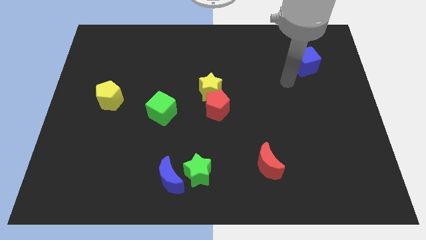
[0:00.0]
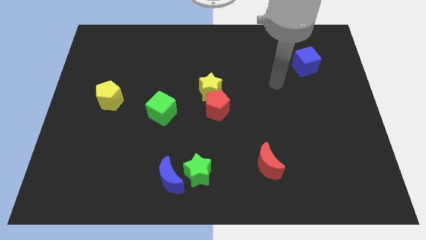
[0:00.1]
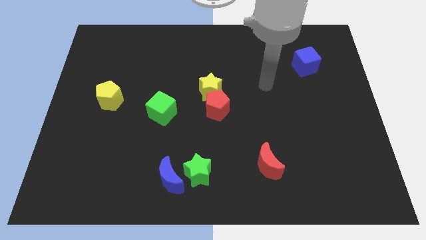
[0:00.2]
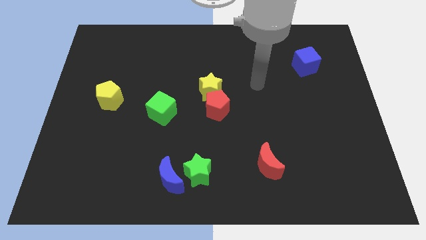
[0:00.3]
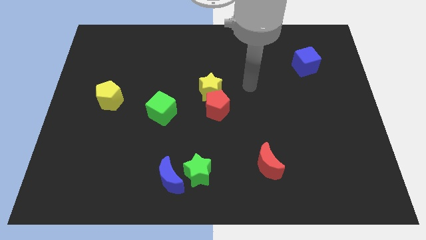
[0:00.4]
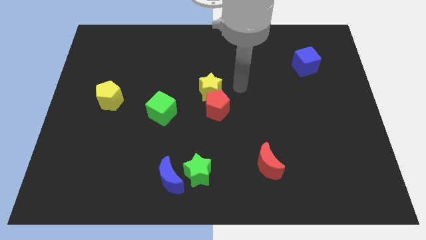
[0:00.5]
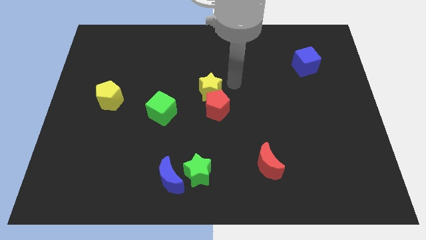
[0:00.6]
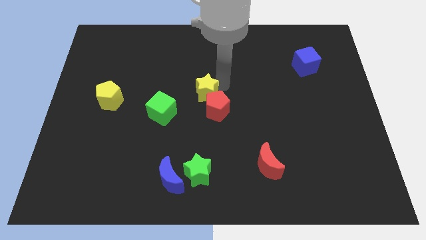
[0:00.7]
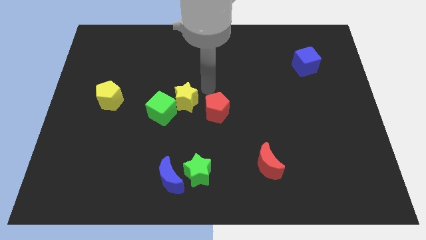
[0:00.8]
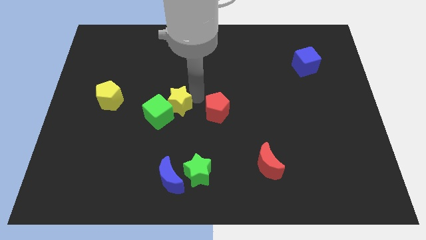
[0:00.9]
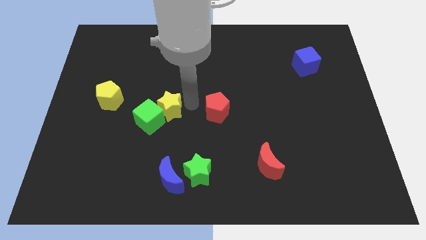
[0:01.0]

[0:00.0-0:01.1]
move the red pentagon away from the yellow star

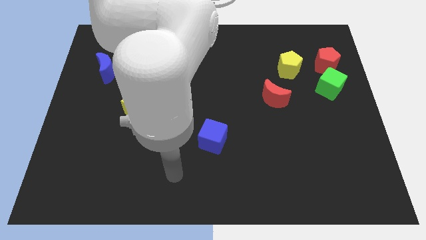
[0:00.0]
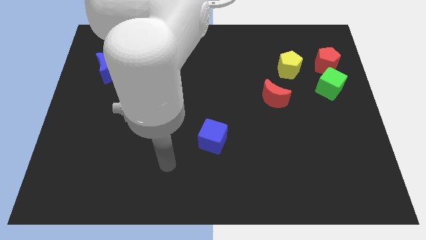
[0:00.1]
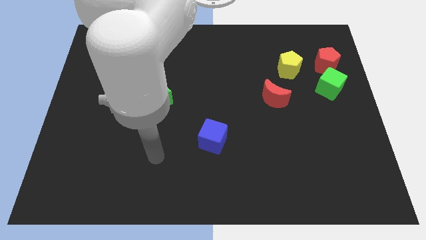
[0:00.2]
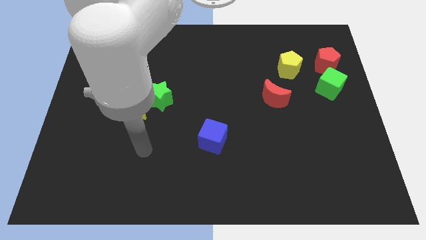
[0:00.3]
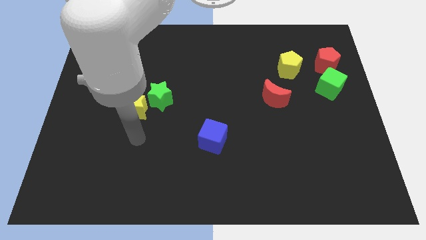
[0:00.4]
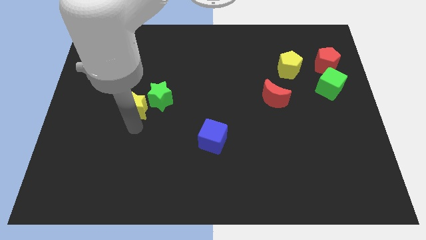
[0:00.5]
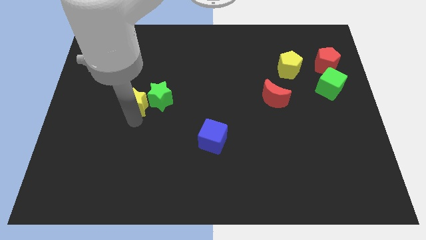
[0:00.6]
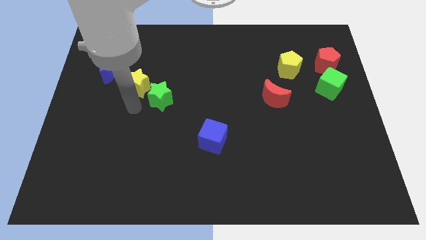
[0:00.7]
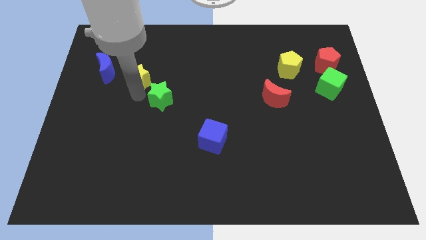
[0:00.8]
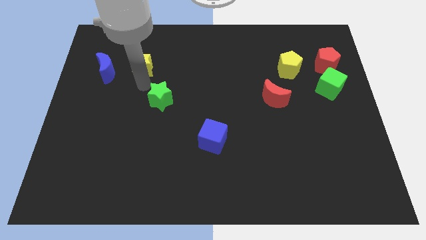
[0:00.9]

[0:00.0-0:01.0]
move the green star away from the yellow star

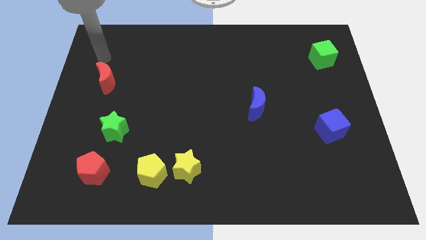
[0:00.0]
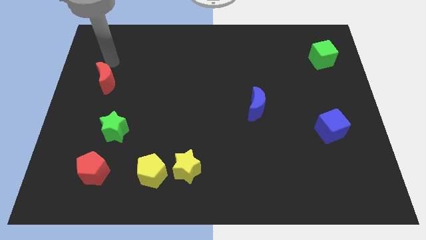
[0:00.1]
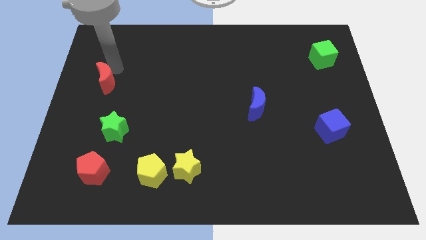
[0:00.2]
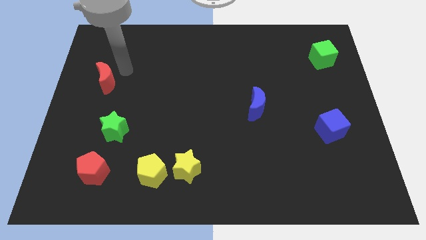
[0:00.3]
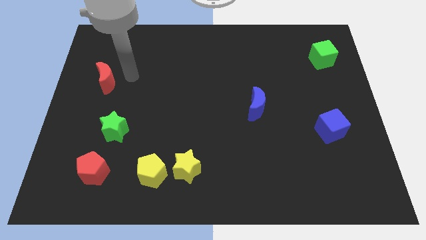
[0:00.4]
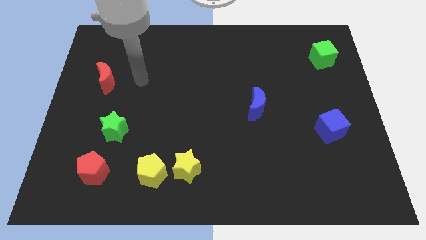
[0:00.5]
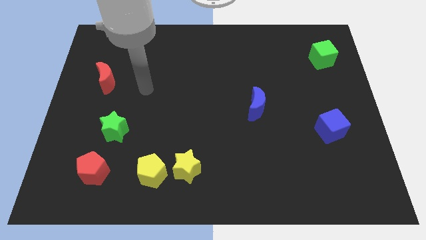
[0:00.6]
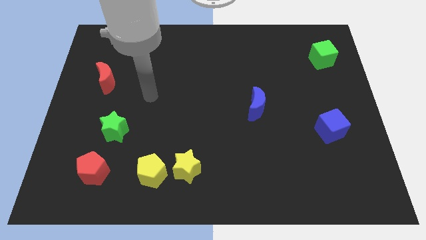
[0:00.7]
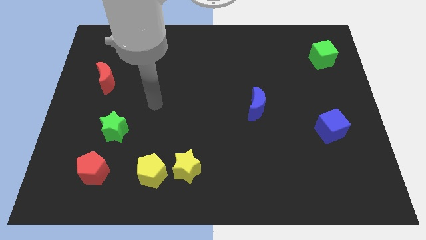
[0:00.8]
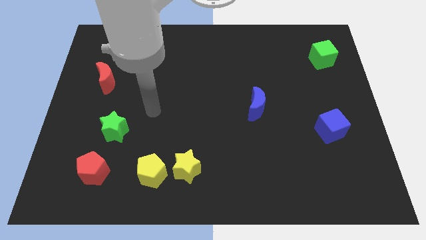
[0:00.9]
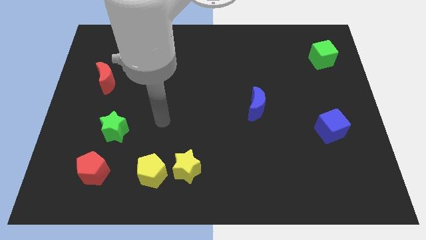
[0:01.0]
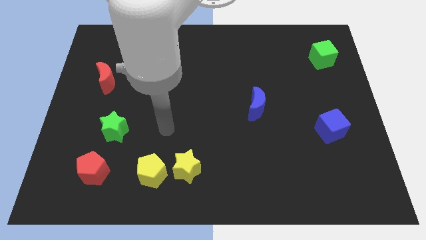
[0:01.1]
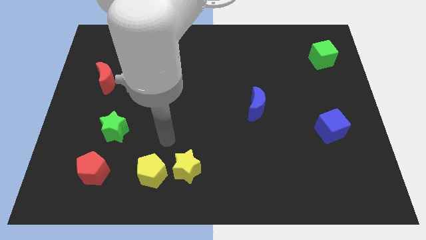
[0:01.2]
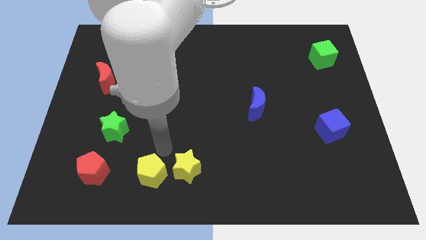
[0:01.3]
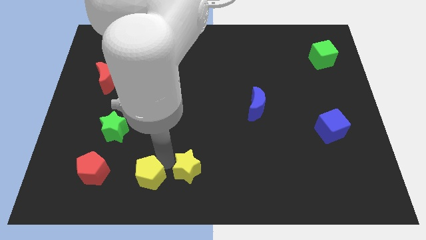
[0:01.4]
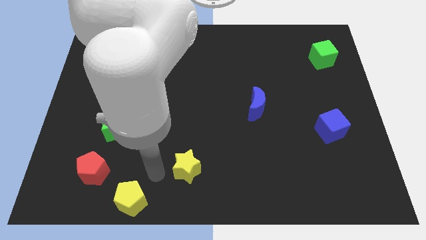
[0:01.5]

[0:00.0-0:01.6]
separate the yellow star from the yellow pentagon

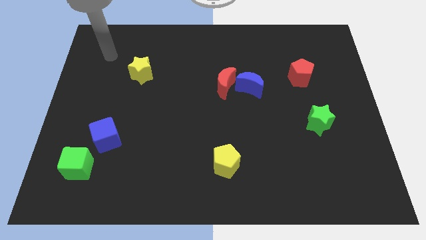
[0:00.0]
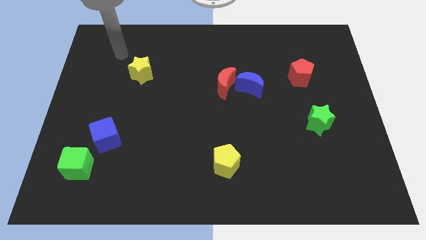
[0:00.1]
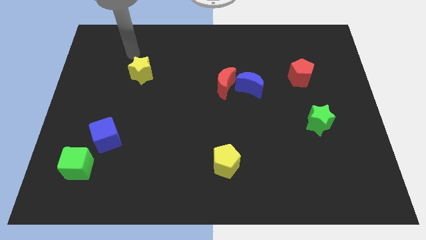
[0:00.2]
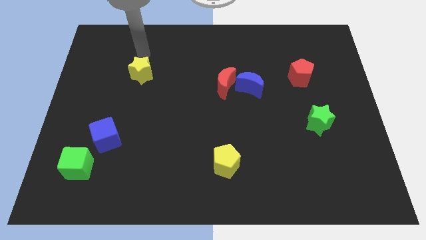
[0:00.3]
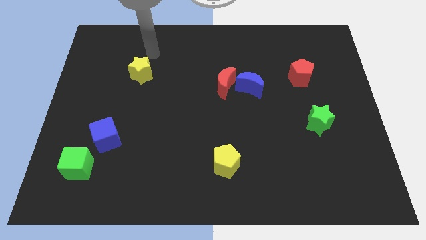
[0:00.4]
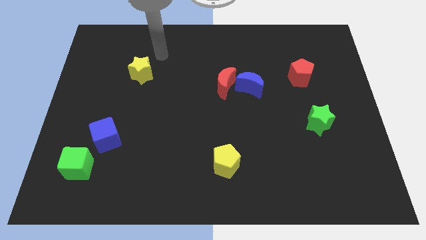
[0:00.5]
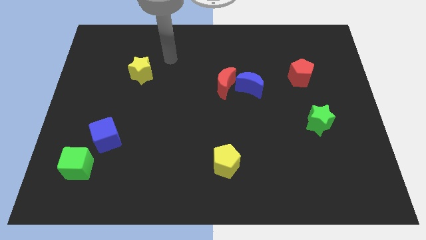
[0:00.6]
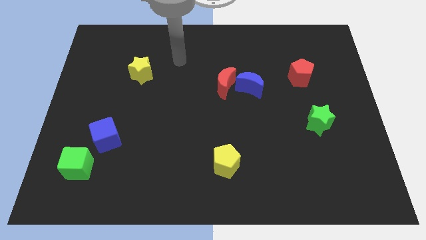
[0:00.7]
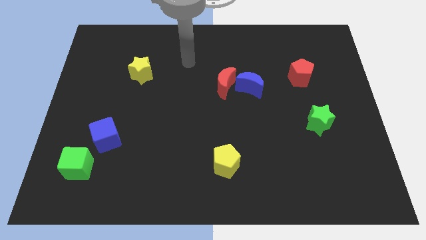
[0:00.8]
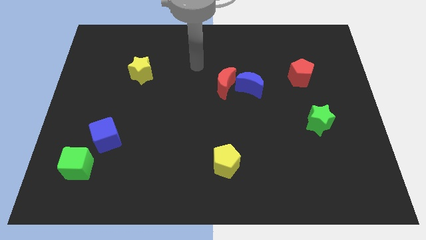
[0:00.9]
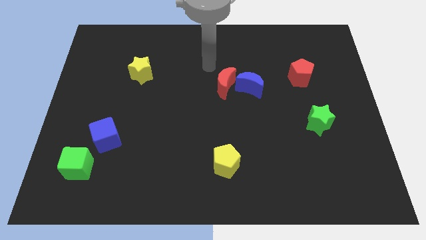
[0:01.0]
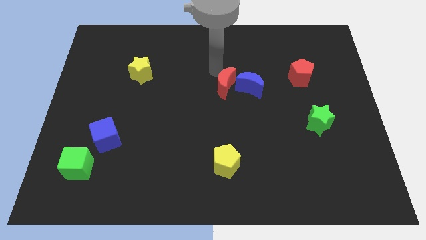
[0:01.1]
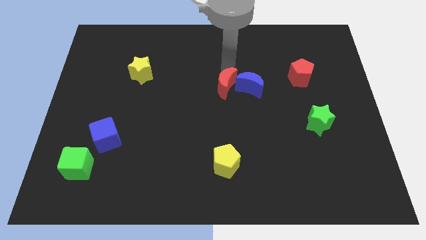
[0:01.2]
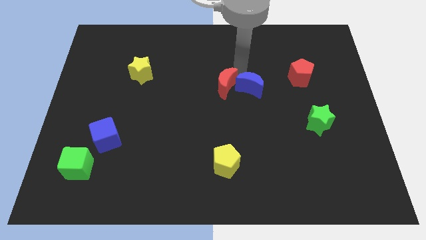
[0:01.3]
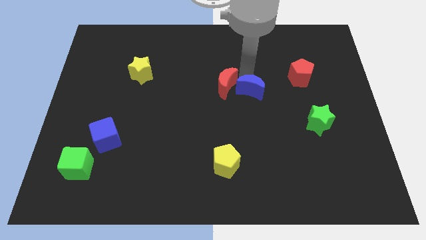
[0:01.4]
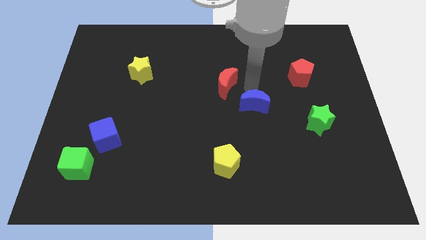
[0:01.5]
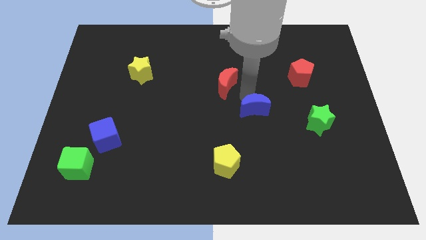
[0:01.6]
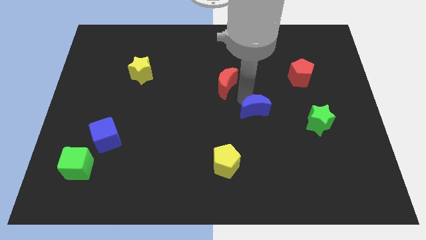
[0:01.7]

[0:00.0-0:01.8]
move the red moon away from the blue moon

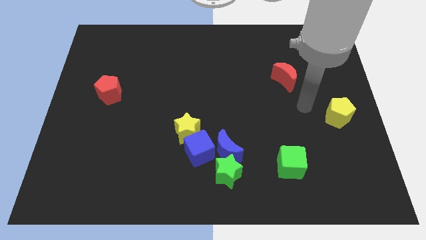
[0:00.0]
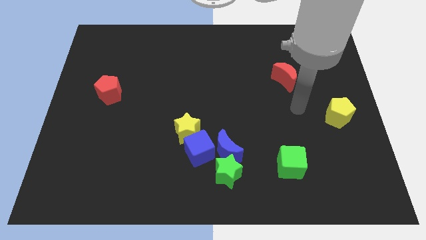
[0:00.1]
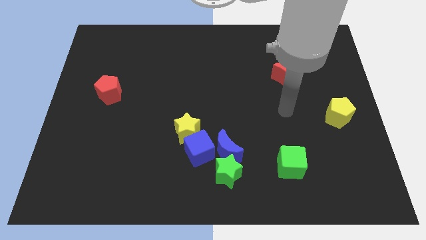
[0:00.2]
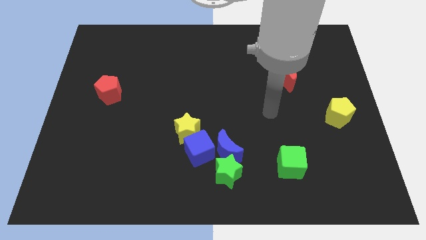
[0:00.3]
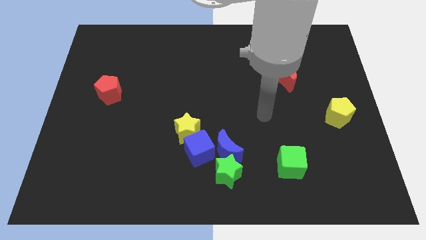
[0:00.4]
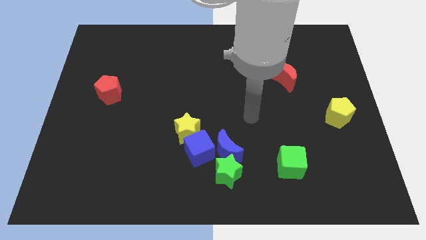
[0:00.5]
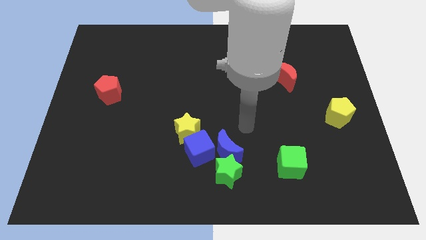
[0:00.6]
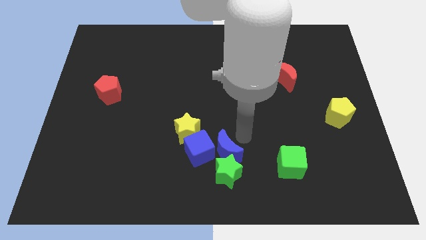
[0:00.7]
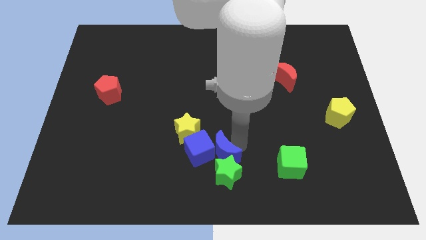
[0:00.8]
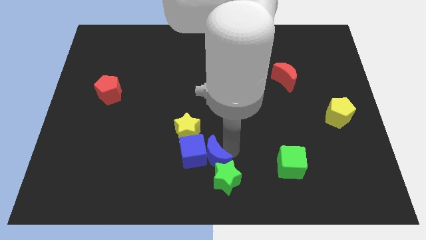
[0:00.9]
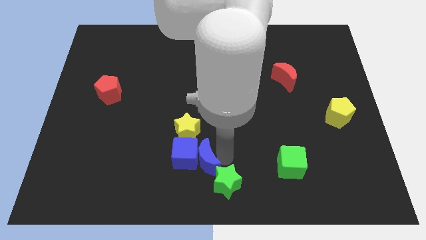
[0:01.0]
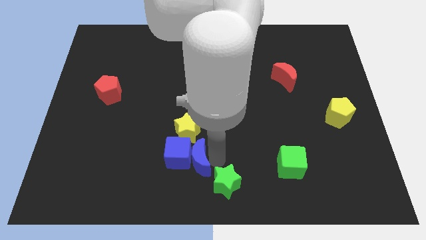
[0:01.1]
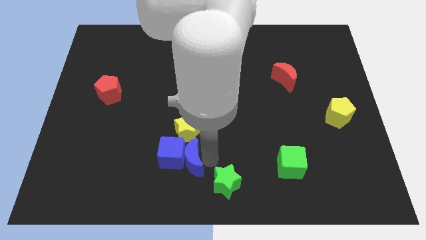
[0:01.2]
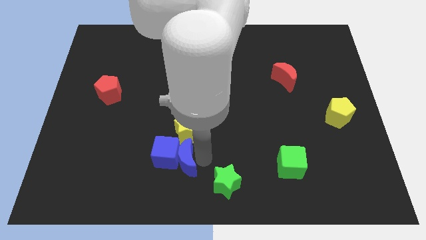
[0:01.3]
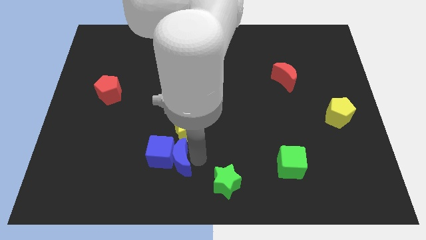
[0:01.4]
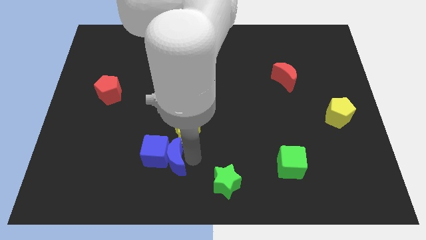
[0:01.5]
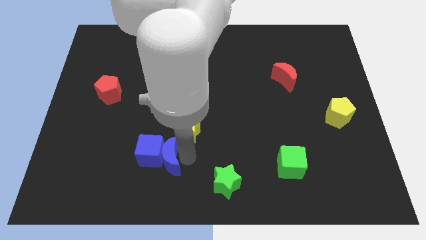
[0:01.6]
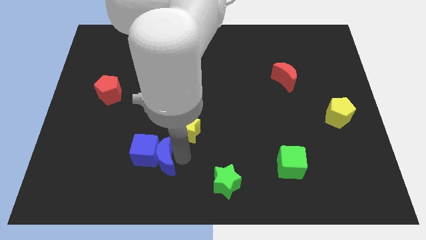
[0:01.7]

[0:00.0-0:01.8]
pull the blue cube apart from the clump

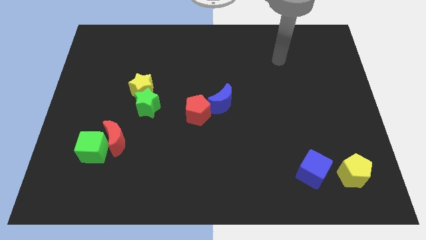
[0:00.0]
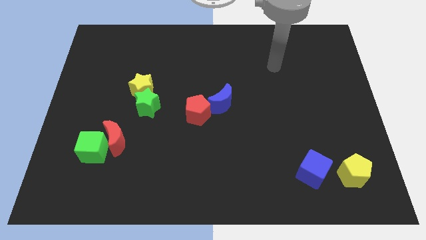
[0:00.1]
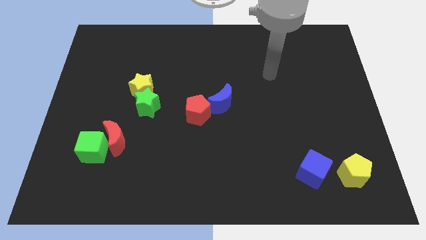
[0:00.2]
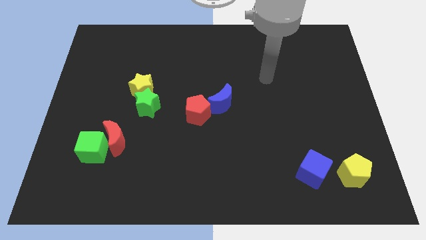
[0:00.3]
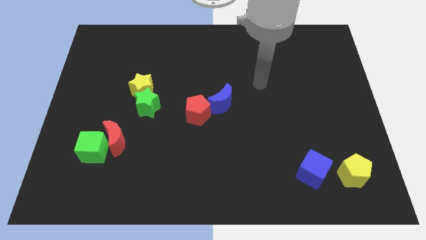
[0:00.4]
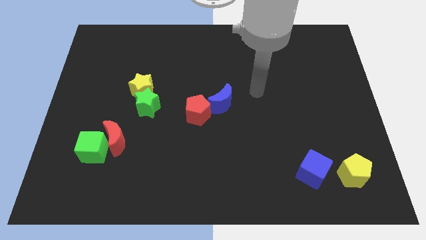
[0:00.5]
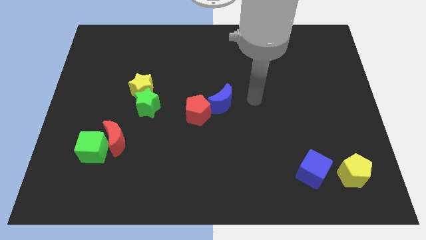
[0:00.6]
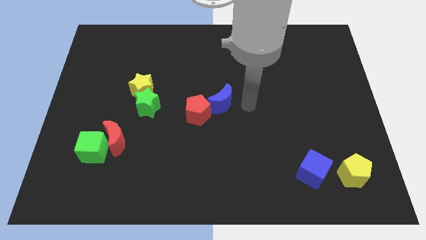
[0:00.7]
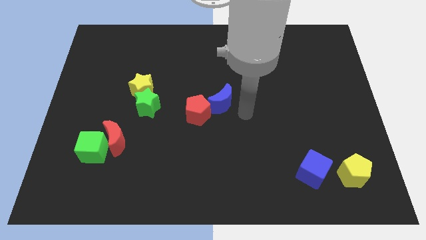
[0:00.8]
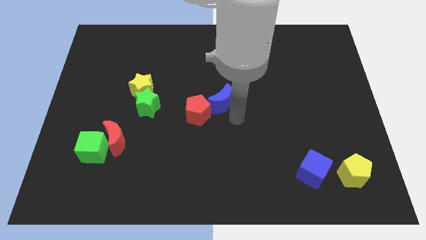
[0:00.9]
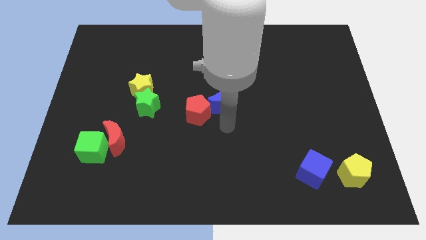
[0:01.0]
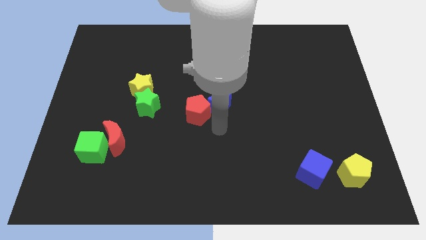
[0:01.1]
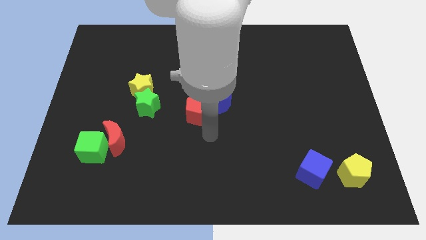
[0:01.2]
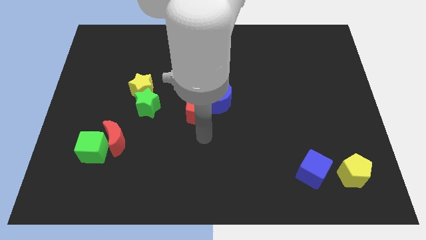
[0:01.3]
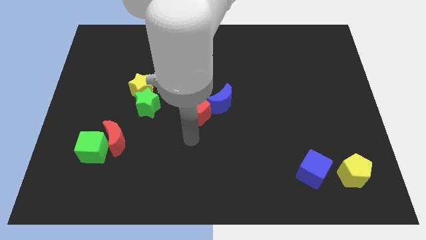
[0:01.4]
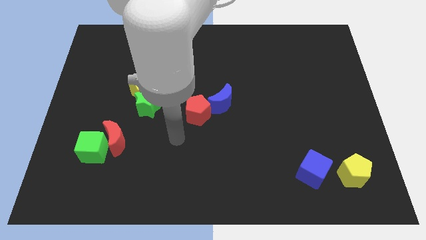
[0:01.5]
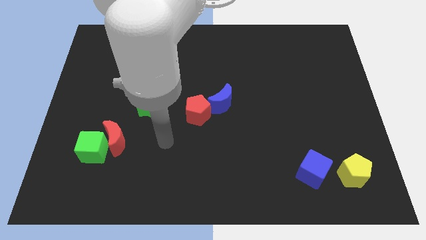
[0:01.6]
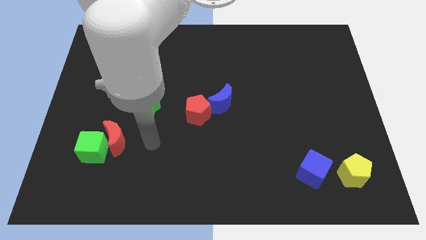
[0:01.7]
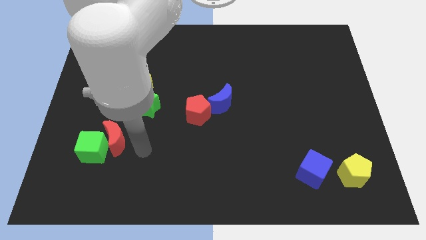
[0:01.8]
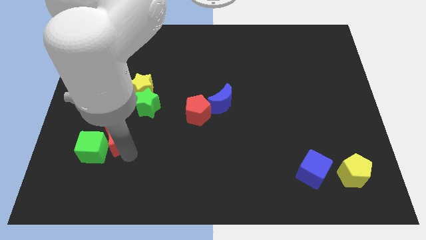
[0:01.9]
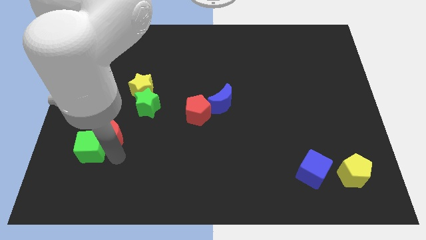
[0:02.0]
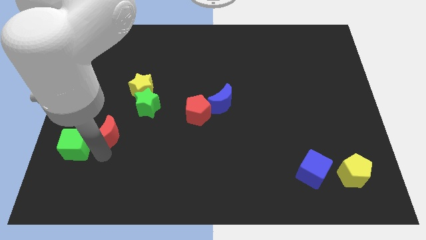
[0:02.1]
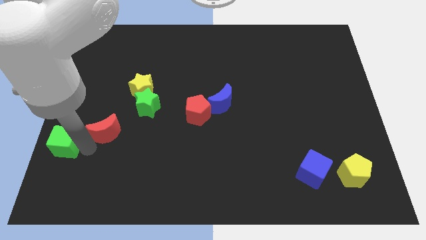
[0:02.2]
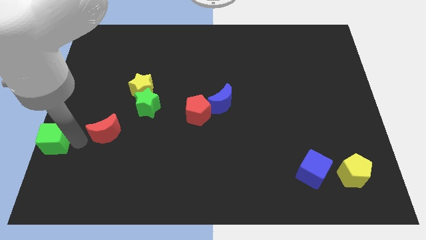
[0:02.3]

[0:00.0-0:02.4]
pull the red moon apart from the green cube
